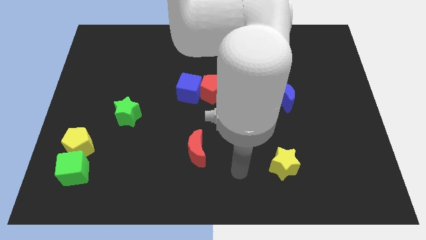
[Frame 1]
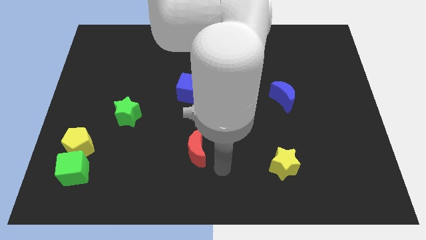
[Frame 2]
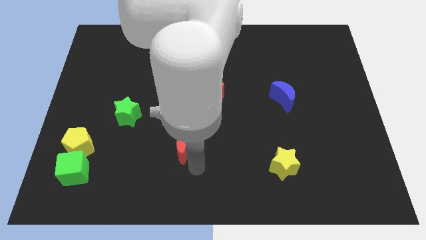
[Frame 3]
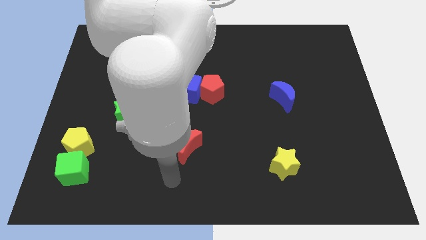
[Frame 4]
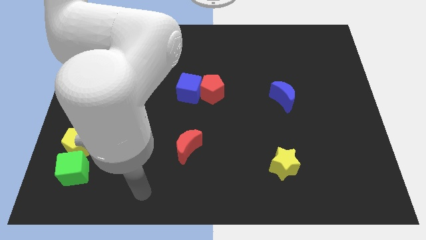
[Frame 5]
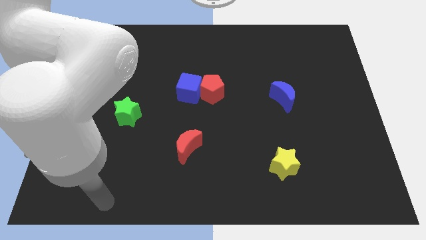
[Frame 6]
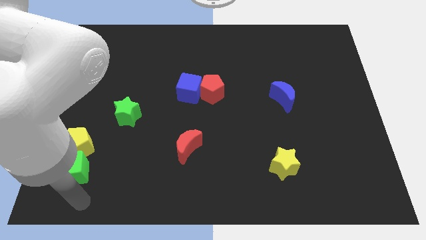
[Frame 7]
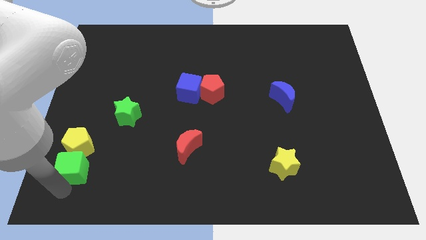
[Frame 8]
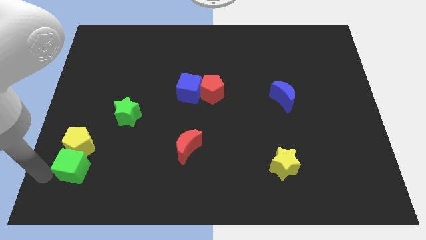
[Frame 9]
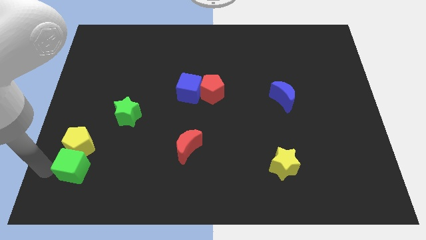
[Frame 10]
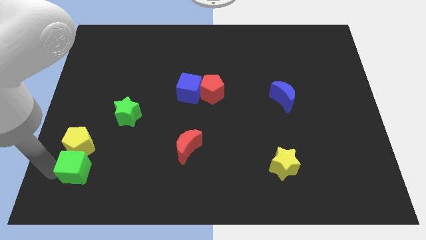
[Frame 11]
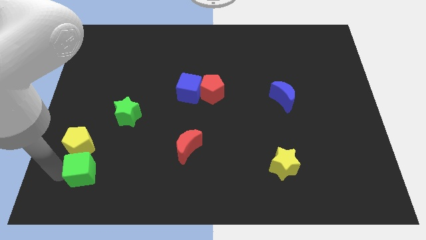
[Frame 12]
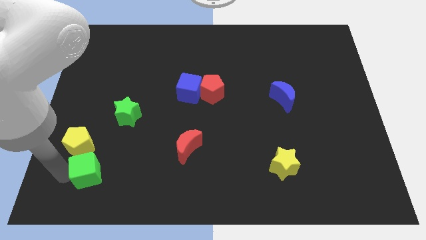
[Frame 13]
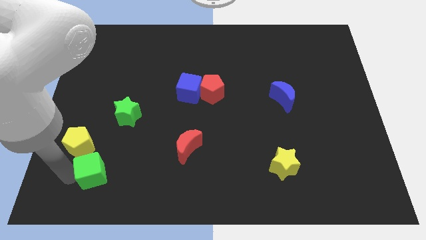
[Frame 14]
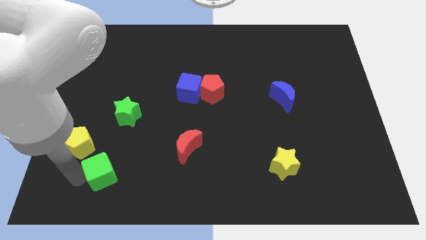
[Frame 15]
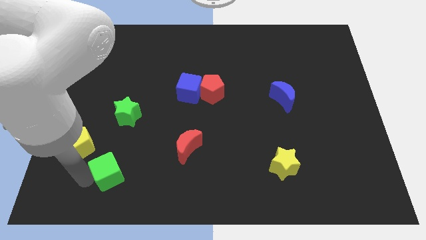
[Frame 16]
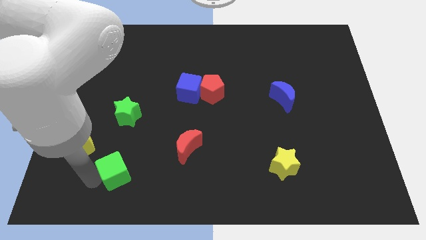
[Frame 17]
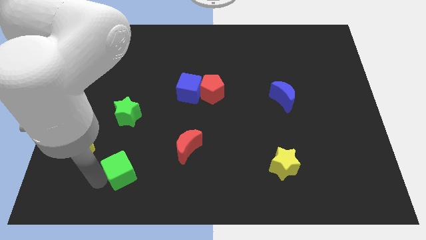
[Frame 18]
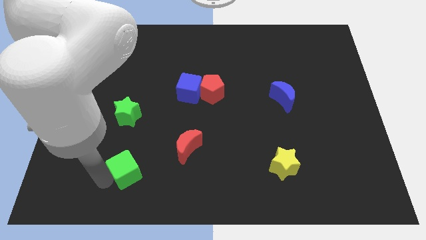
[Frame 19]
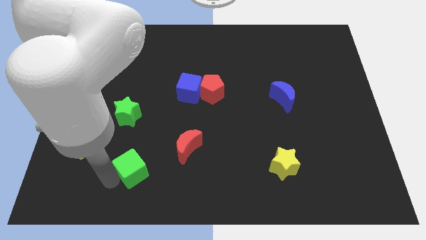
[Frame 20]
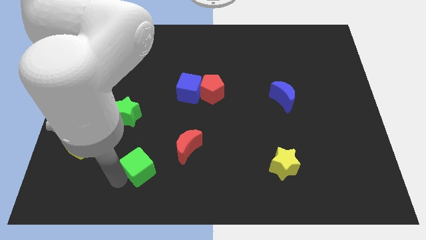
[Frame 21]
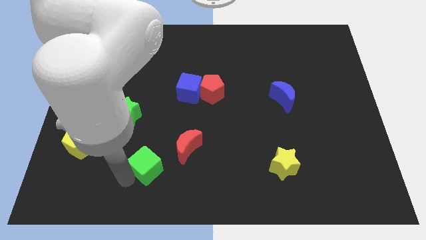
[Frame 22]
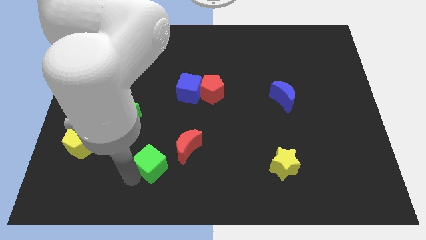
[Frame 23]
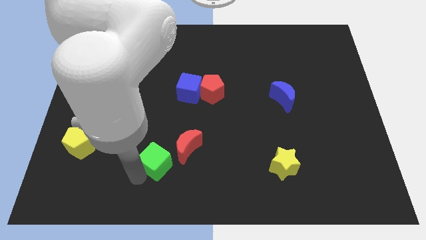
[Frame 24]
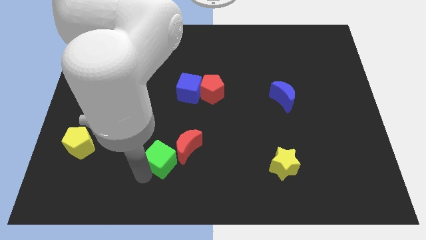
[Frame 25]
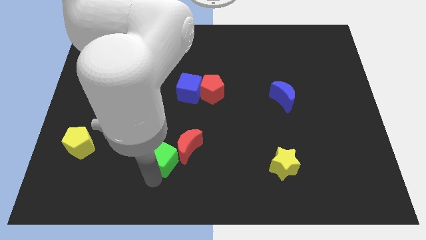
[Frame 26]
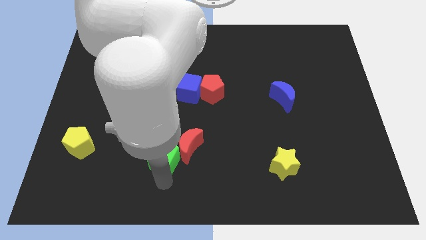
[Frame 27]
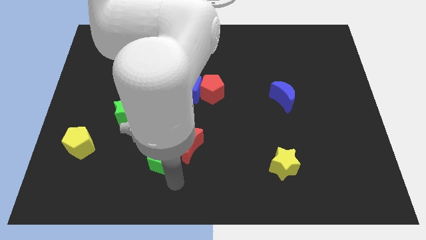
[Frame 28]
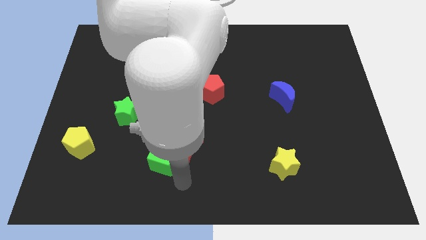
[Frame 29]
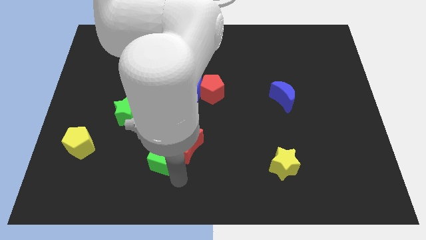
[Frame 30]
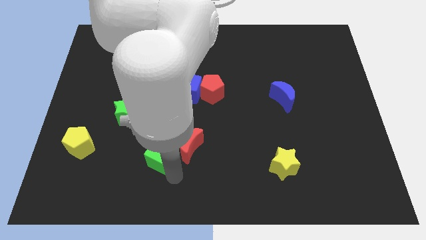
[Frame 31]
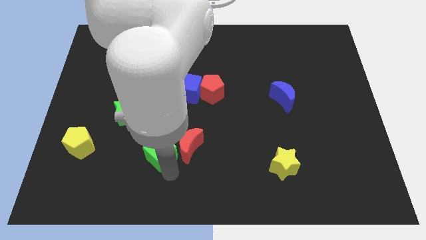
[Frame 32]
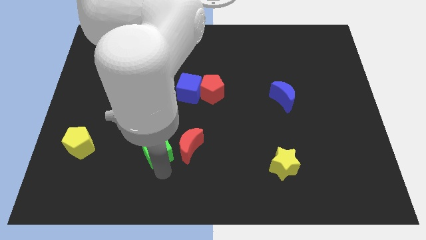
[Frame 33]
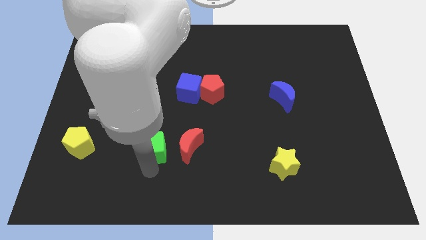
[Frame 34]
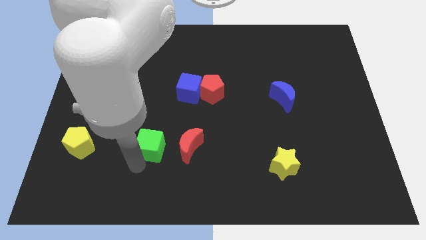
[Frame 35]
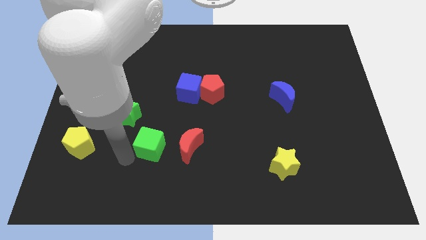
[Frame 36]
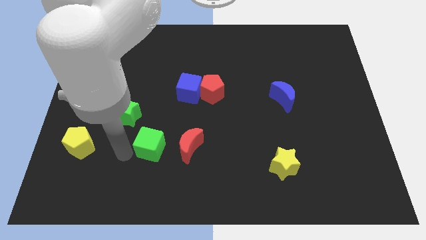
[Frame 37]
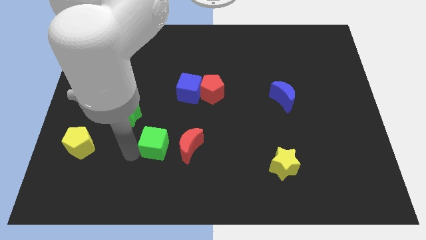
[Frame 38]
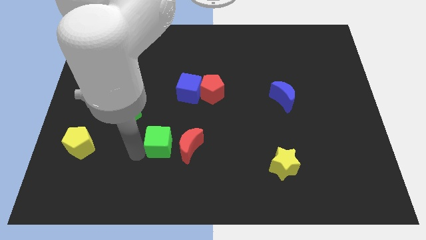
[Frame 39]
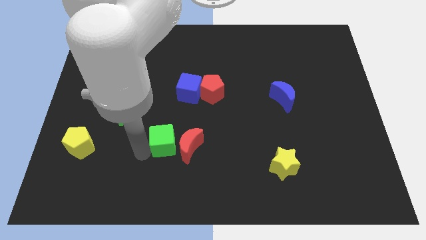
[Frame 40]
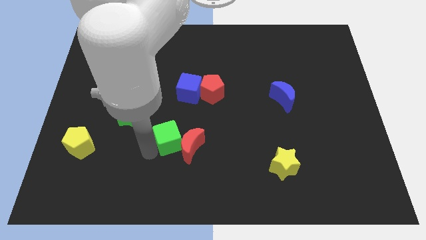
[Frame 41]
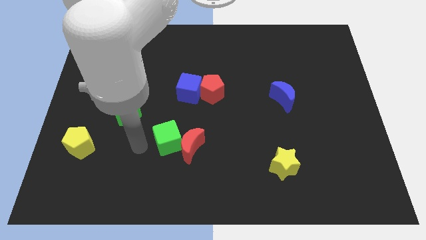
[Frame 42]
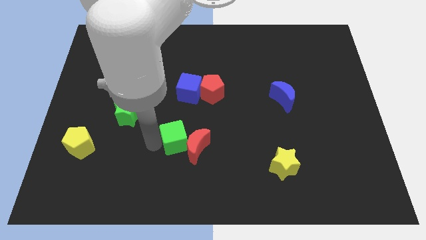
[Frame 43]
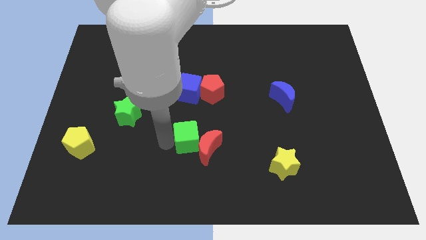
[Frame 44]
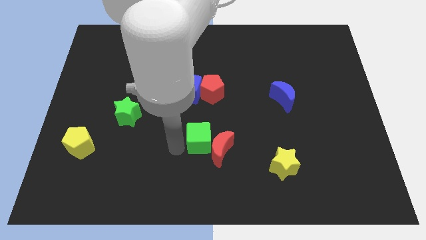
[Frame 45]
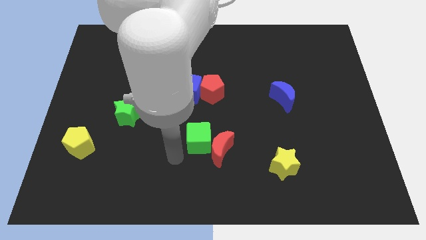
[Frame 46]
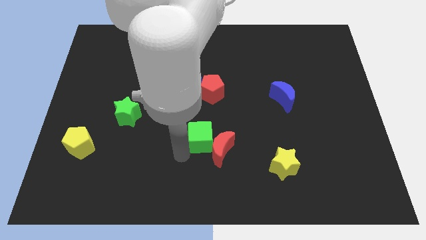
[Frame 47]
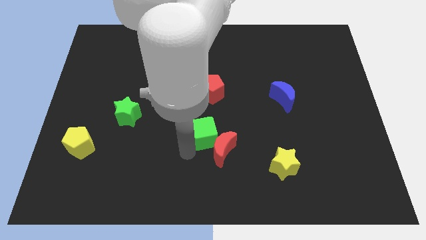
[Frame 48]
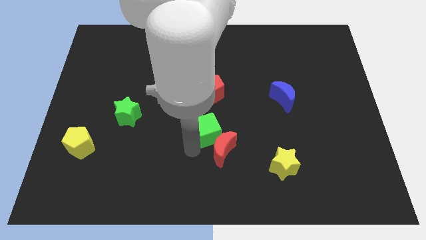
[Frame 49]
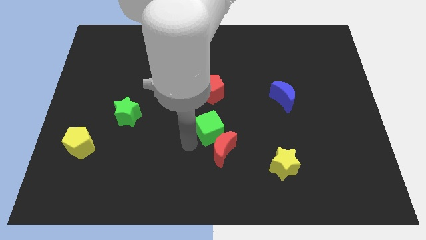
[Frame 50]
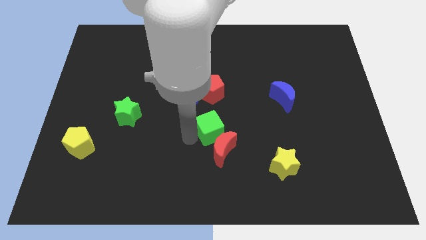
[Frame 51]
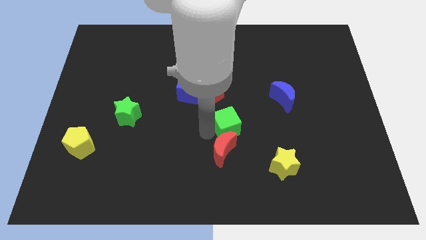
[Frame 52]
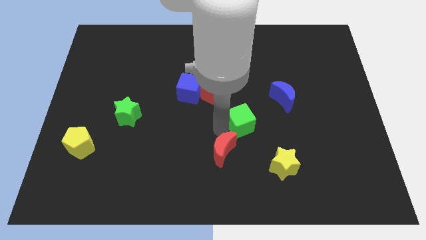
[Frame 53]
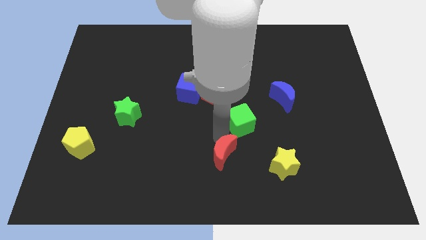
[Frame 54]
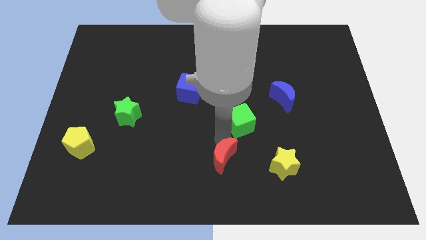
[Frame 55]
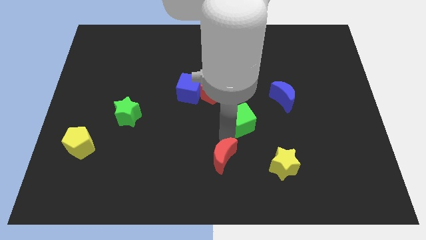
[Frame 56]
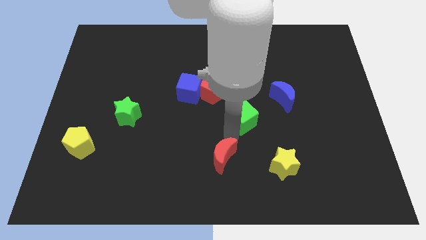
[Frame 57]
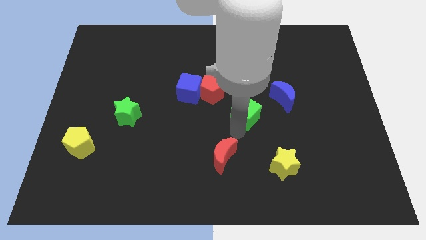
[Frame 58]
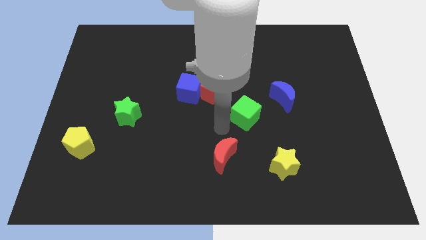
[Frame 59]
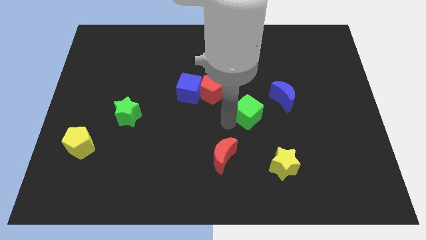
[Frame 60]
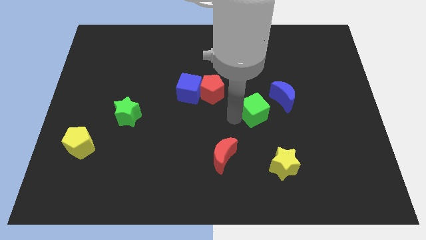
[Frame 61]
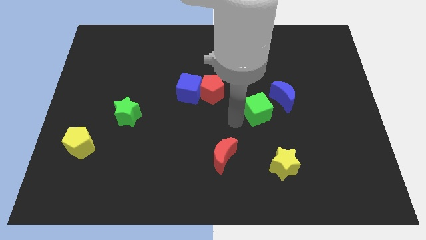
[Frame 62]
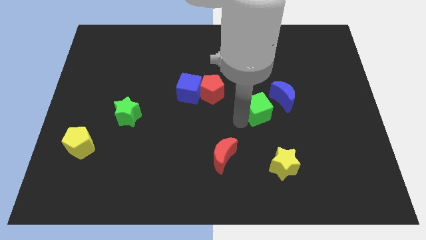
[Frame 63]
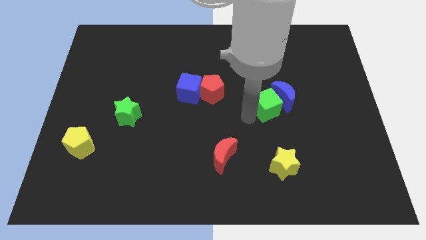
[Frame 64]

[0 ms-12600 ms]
slide the green cube next to the blue moon
